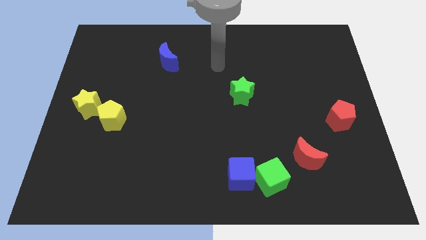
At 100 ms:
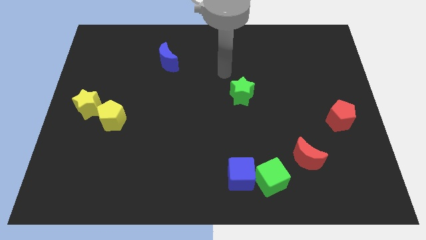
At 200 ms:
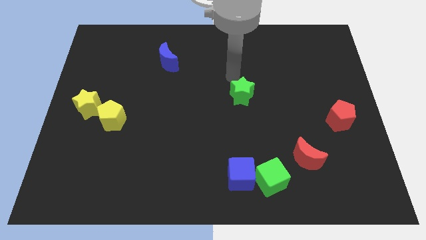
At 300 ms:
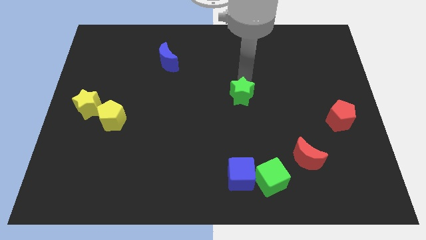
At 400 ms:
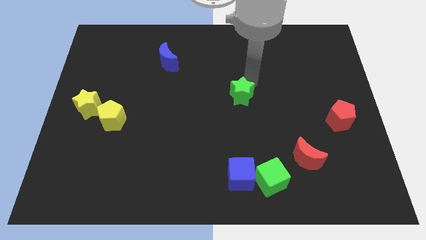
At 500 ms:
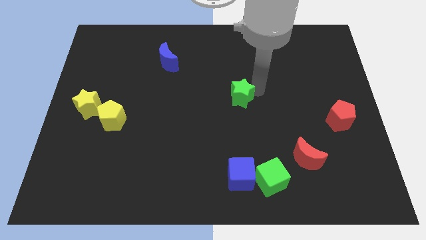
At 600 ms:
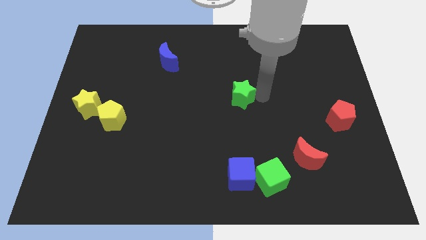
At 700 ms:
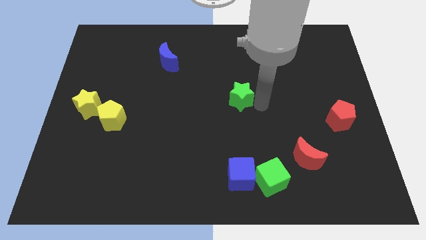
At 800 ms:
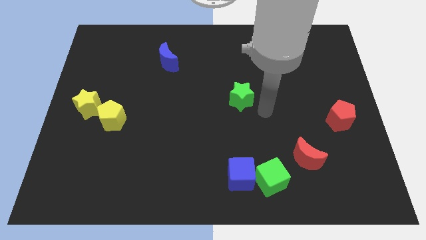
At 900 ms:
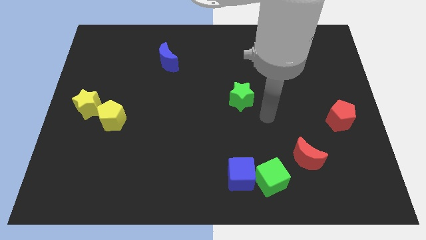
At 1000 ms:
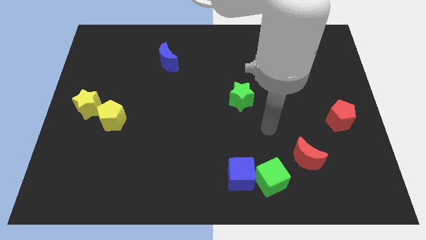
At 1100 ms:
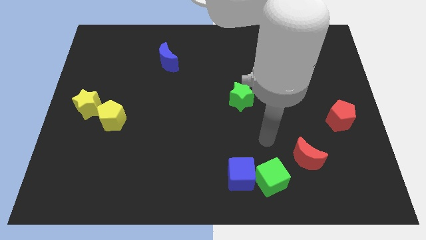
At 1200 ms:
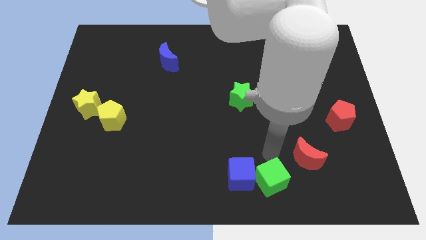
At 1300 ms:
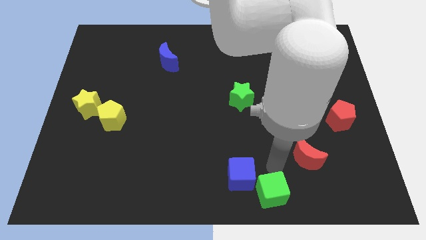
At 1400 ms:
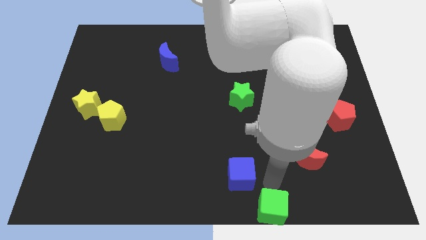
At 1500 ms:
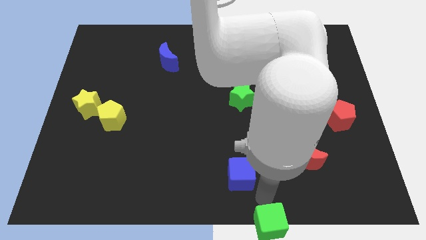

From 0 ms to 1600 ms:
move the blue cube away from the green cube

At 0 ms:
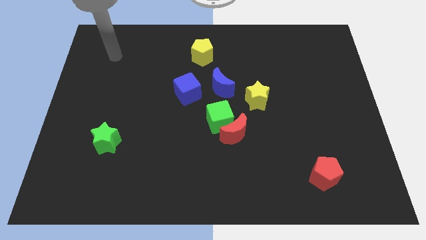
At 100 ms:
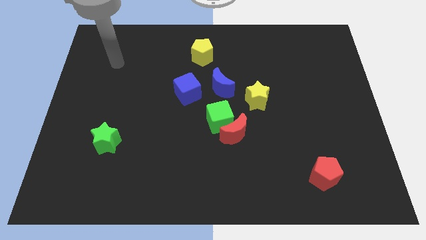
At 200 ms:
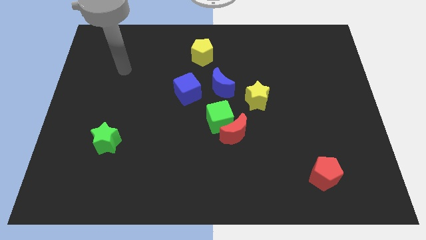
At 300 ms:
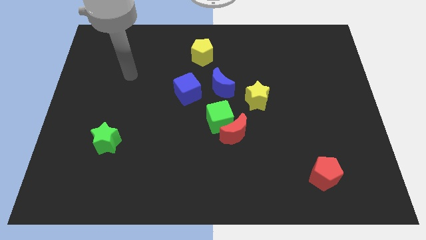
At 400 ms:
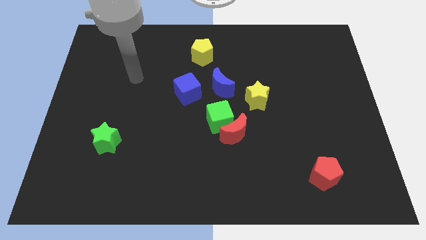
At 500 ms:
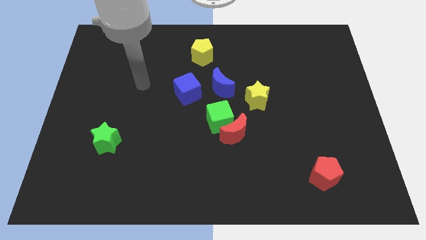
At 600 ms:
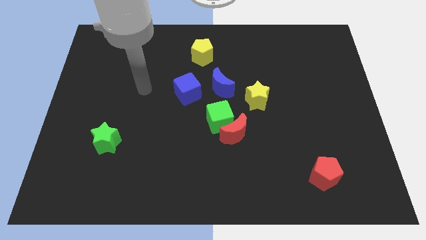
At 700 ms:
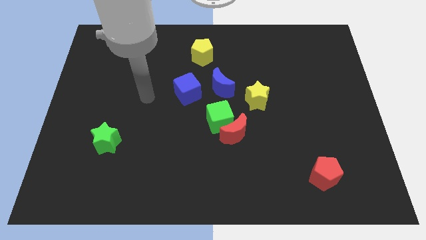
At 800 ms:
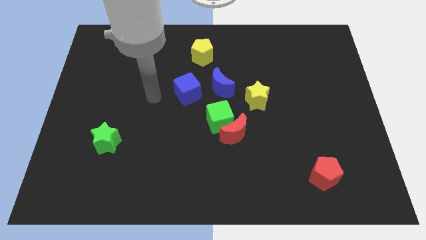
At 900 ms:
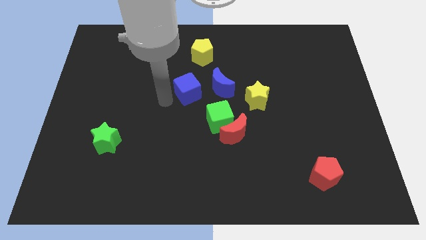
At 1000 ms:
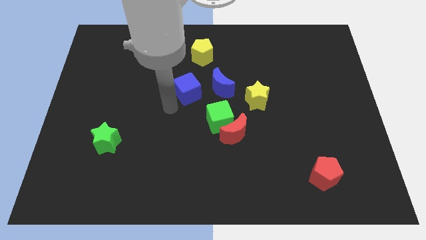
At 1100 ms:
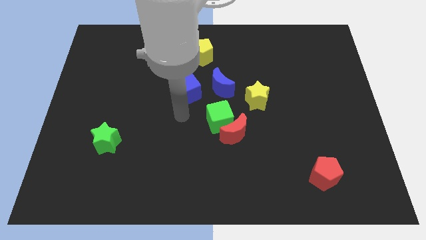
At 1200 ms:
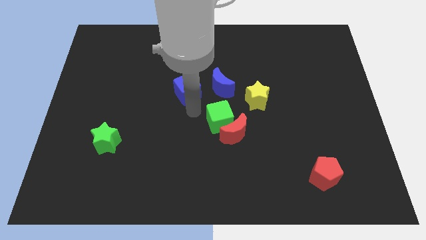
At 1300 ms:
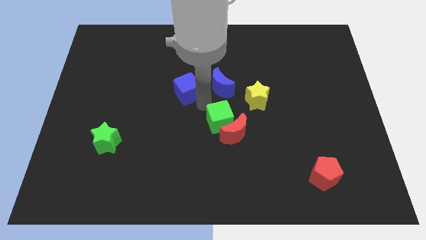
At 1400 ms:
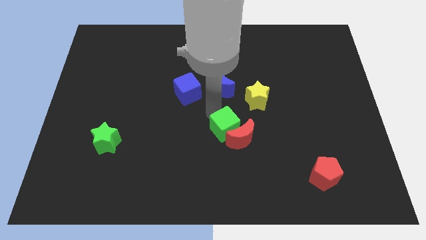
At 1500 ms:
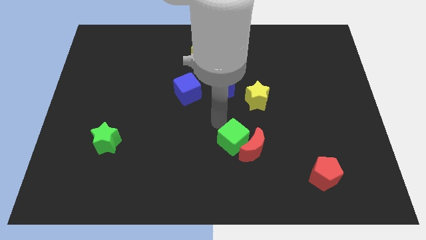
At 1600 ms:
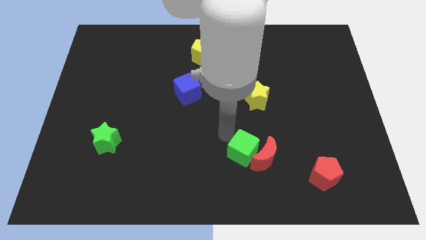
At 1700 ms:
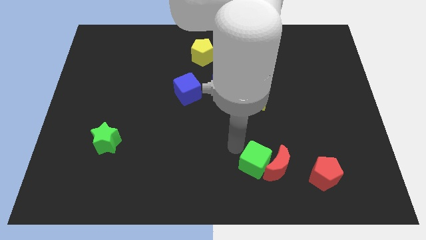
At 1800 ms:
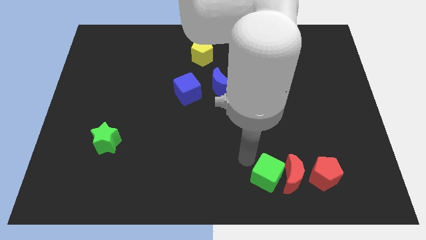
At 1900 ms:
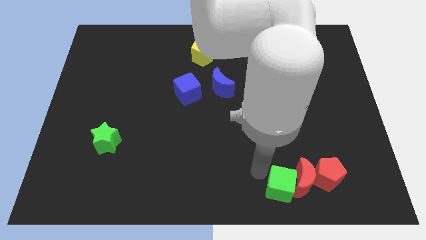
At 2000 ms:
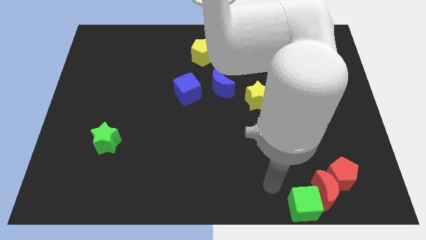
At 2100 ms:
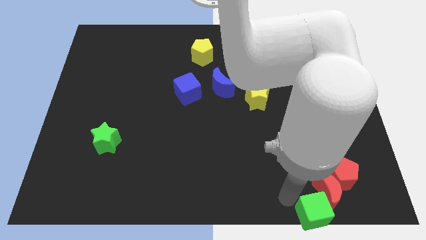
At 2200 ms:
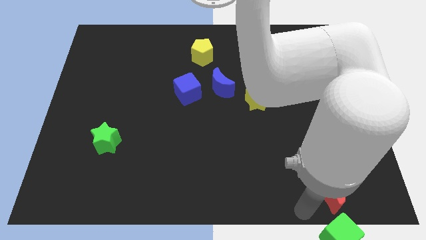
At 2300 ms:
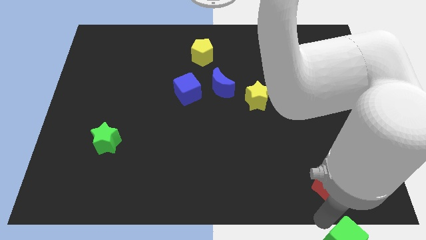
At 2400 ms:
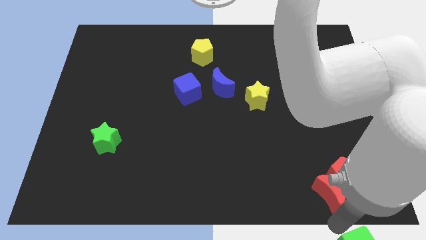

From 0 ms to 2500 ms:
pull the red moon apart from the green cube

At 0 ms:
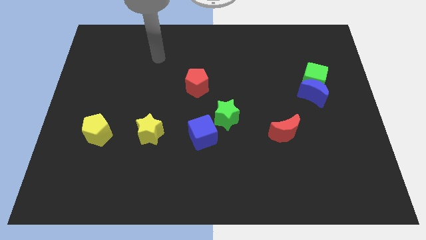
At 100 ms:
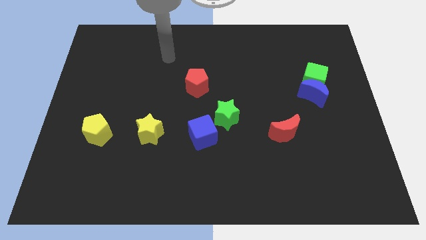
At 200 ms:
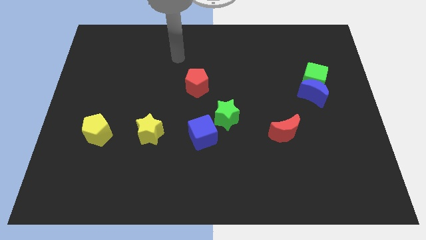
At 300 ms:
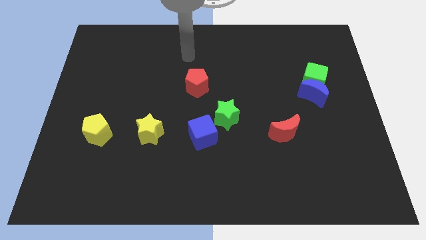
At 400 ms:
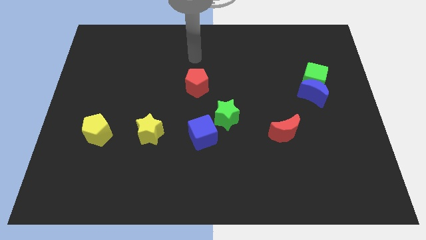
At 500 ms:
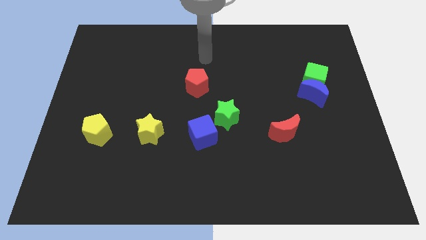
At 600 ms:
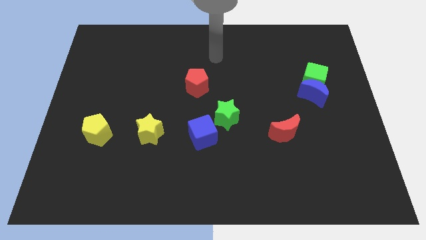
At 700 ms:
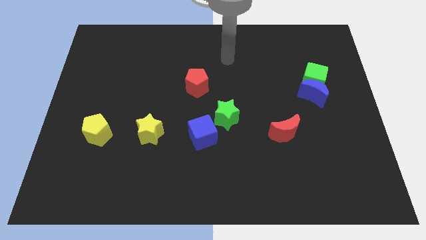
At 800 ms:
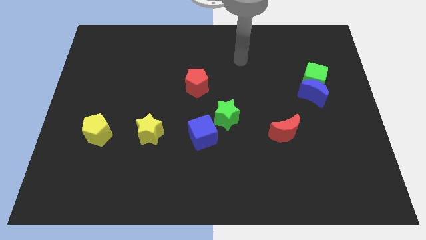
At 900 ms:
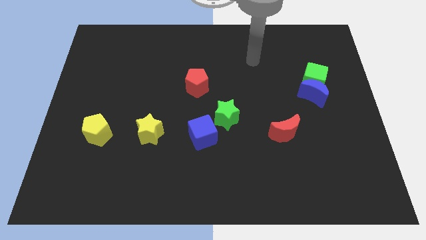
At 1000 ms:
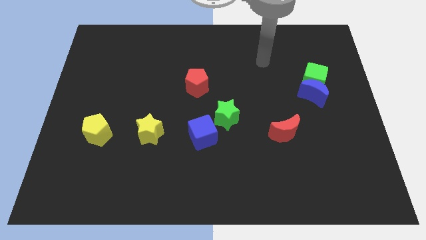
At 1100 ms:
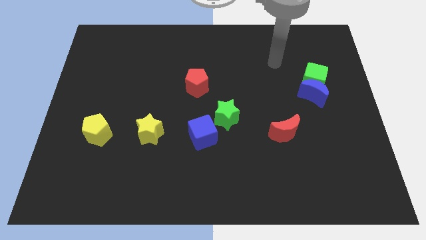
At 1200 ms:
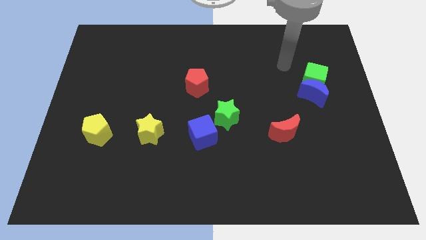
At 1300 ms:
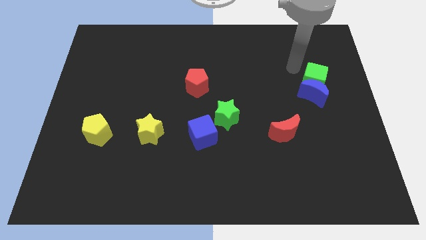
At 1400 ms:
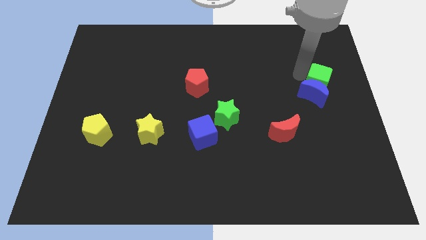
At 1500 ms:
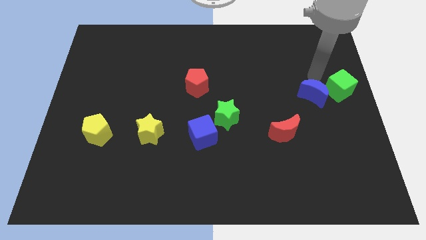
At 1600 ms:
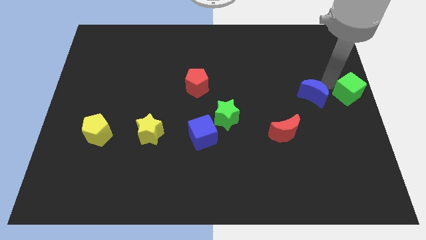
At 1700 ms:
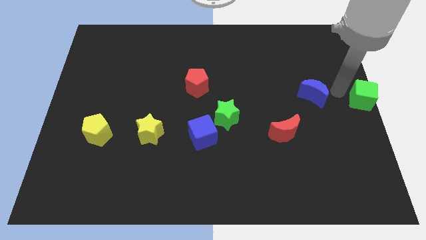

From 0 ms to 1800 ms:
move the blue moon away from the green cube

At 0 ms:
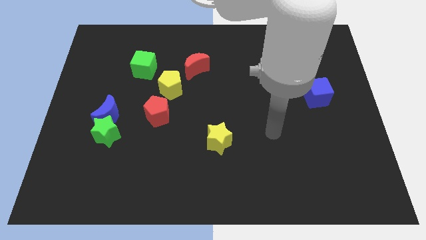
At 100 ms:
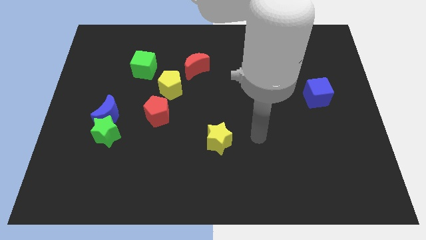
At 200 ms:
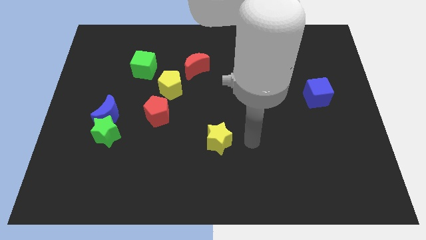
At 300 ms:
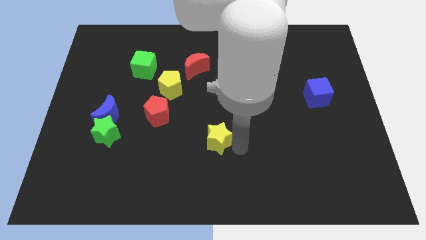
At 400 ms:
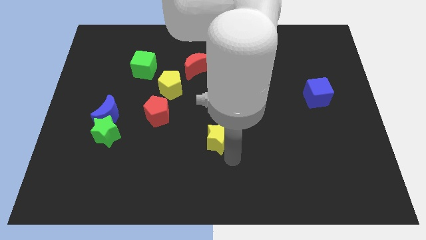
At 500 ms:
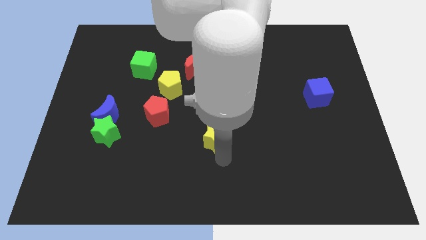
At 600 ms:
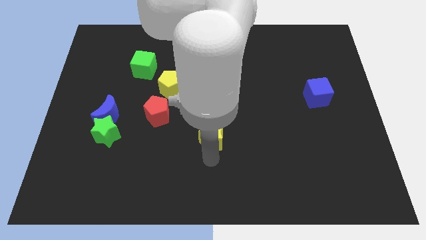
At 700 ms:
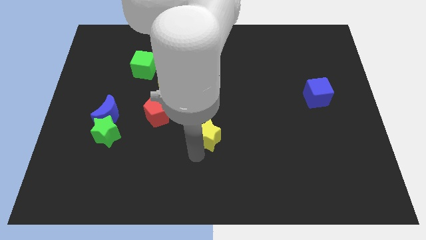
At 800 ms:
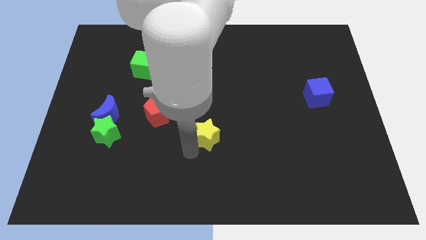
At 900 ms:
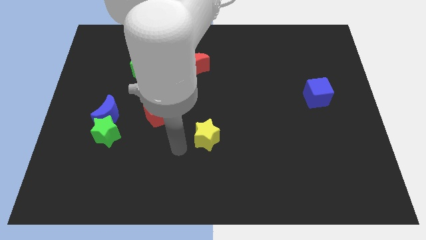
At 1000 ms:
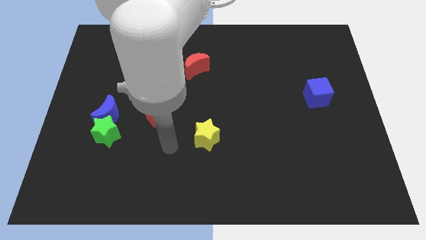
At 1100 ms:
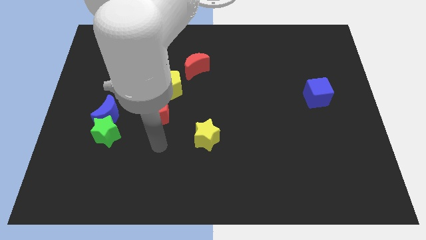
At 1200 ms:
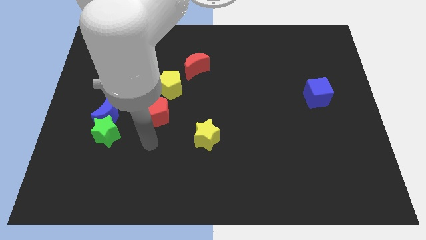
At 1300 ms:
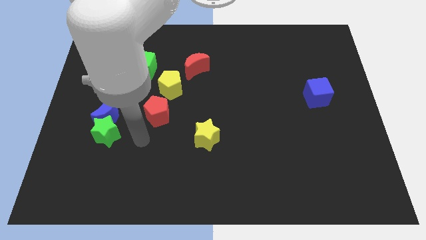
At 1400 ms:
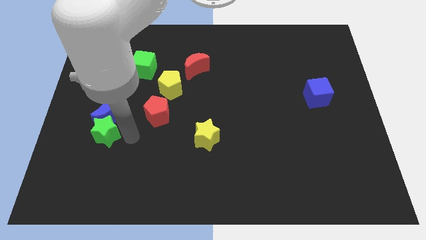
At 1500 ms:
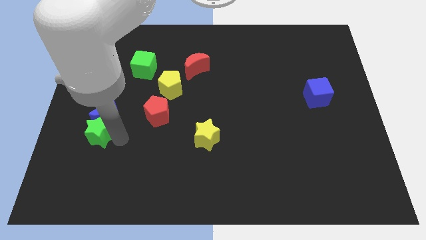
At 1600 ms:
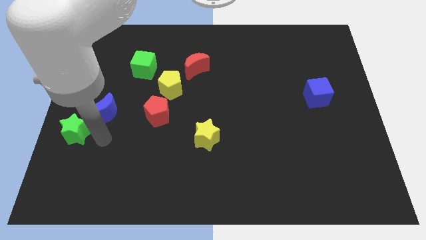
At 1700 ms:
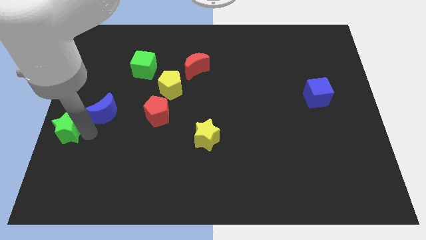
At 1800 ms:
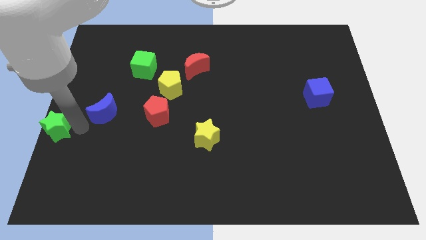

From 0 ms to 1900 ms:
separate the blue moon from the green star

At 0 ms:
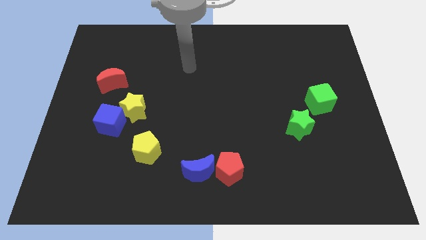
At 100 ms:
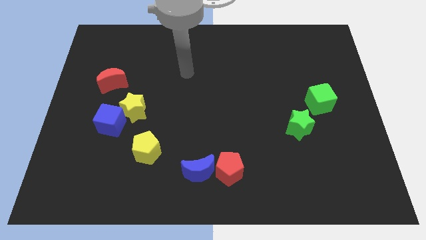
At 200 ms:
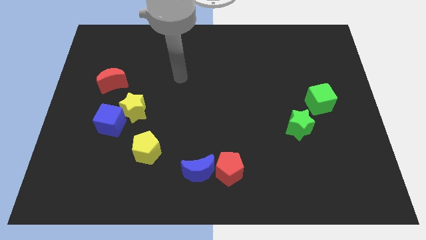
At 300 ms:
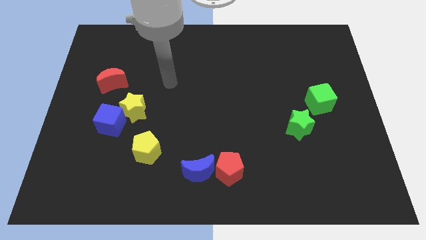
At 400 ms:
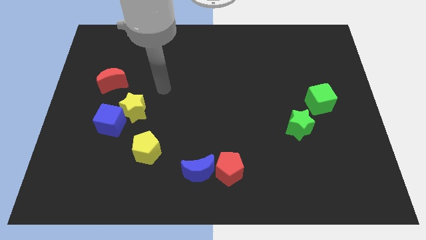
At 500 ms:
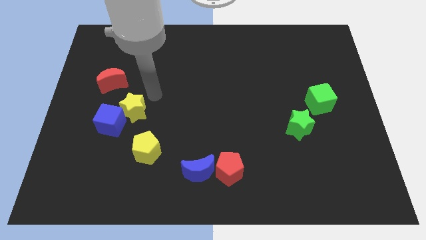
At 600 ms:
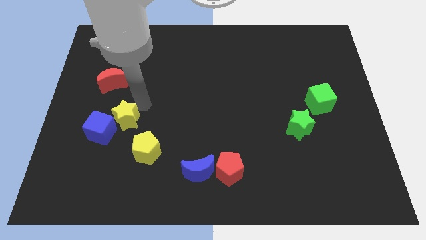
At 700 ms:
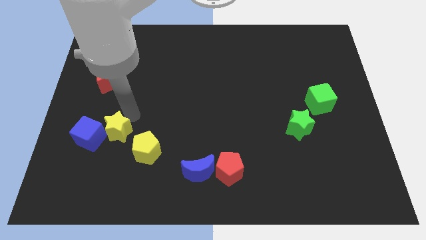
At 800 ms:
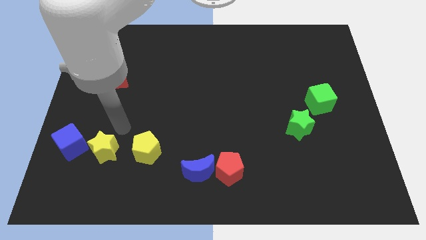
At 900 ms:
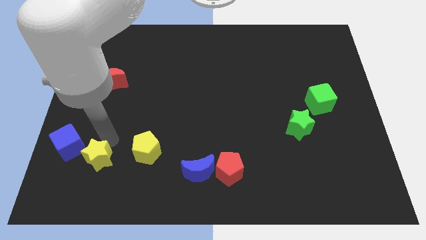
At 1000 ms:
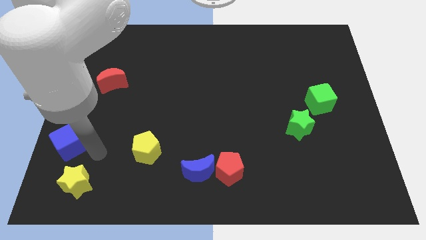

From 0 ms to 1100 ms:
pull the blue cube apart from the yellow star

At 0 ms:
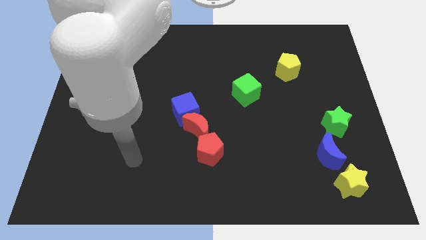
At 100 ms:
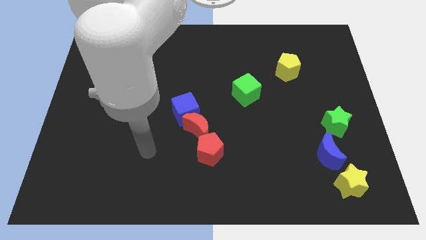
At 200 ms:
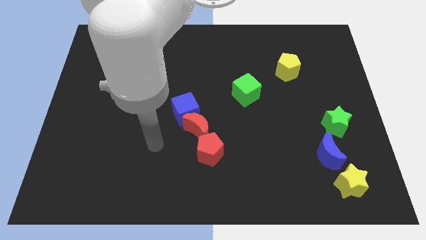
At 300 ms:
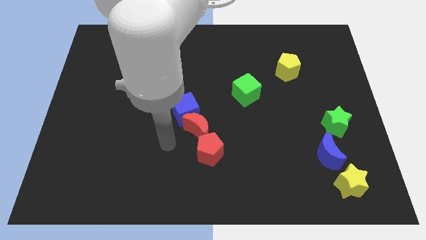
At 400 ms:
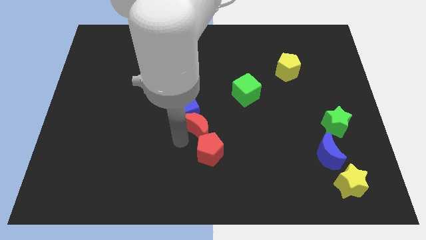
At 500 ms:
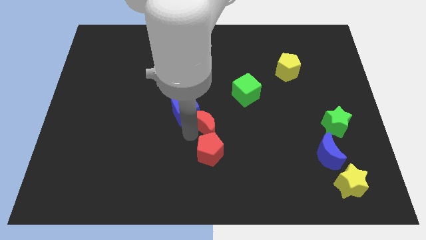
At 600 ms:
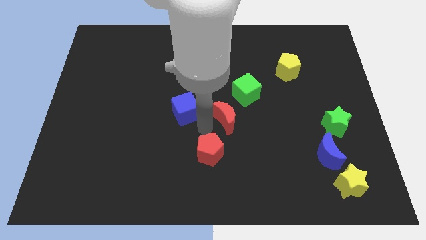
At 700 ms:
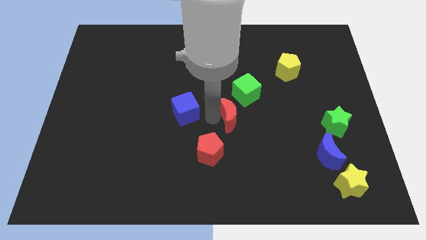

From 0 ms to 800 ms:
separate the blue cube from the red moon
